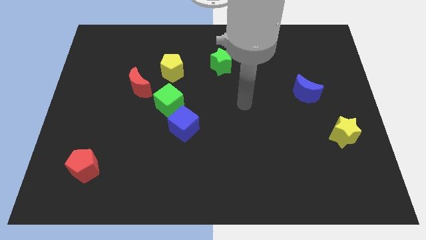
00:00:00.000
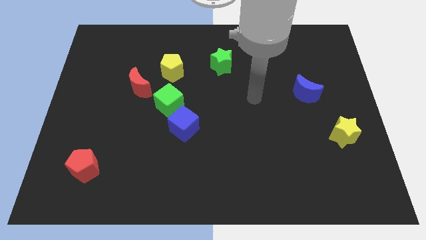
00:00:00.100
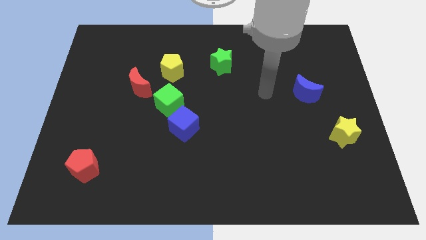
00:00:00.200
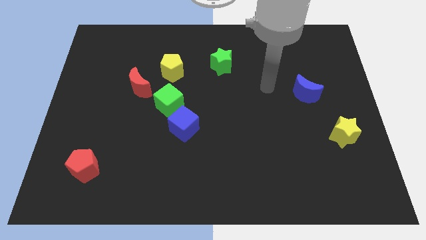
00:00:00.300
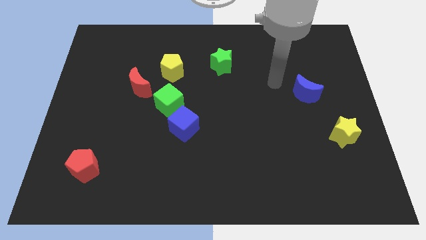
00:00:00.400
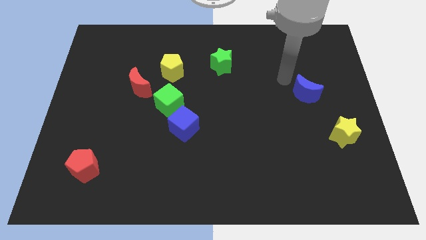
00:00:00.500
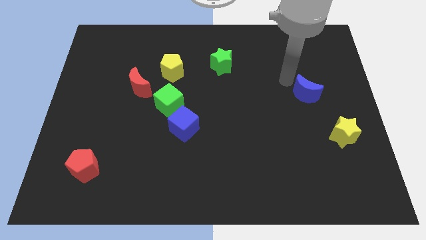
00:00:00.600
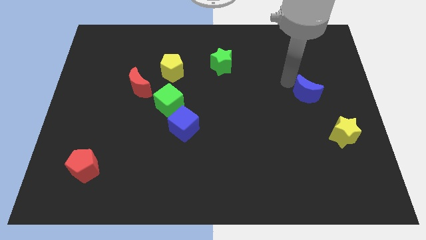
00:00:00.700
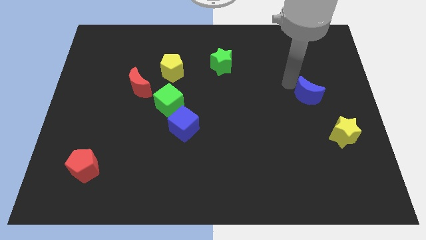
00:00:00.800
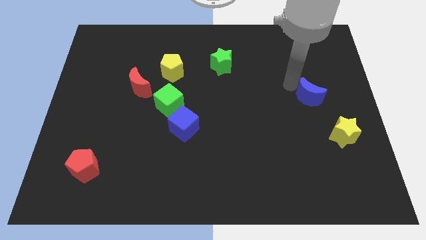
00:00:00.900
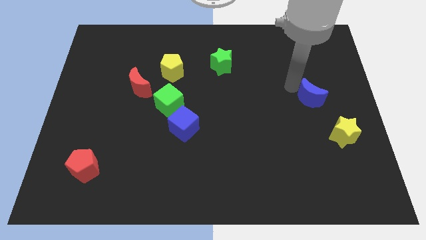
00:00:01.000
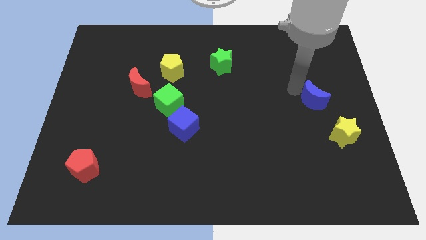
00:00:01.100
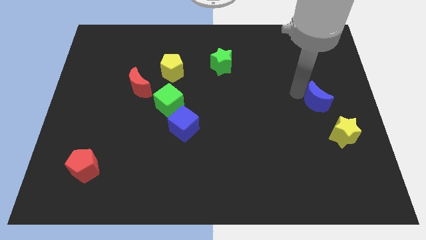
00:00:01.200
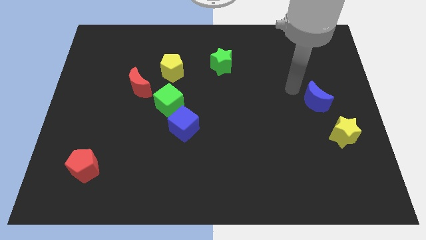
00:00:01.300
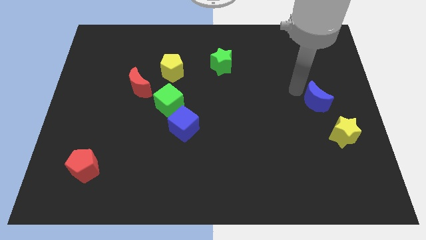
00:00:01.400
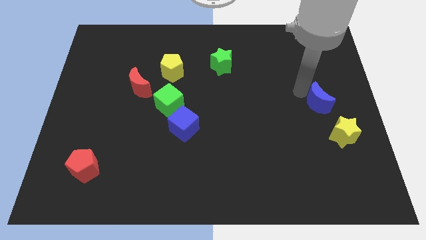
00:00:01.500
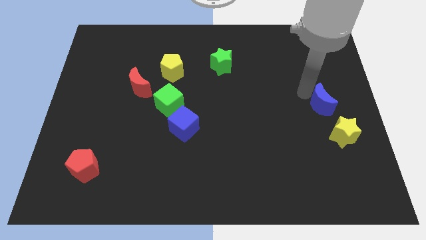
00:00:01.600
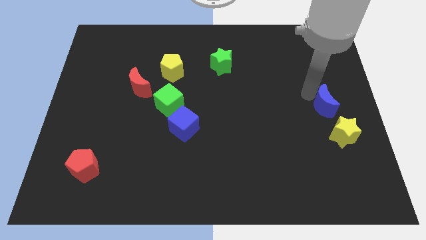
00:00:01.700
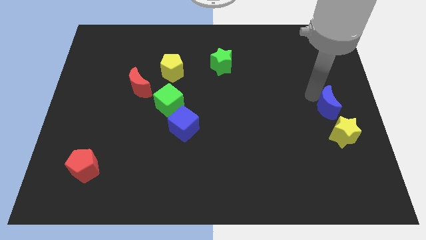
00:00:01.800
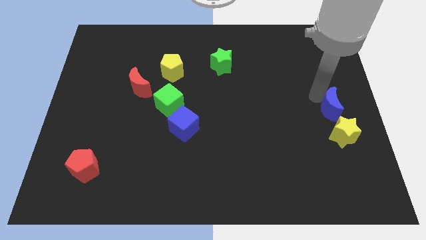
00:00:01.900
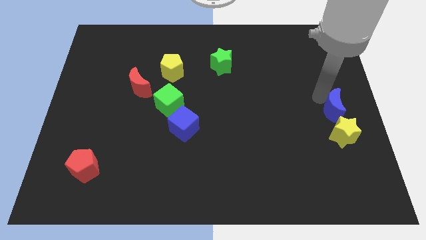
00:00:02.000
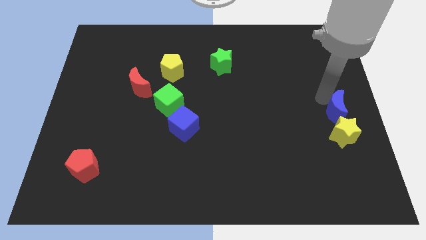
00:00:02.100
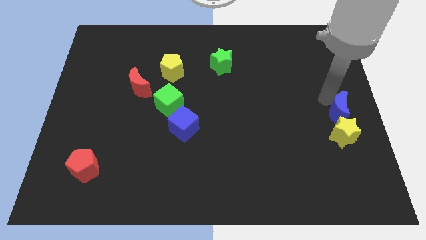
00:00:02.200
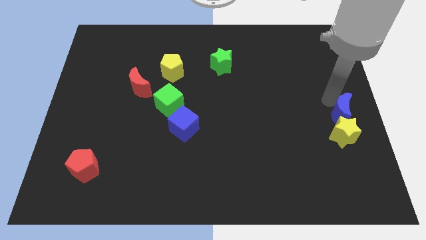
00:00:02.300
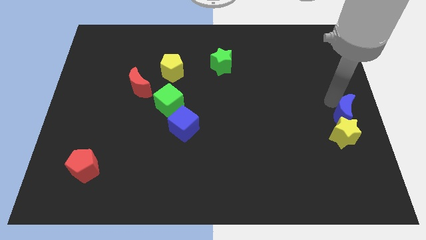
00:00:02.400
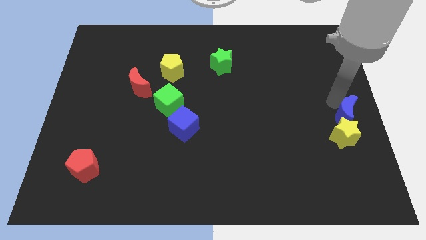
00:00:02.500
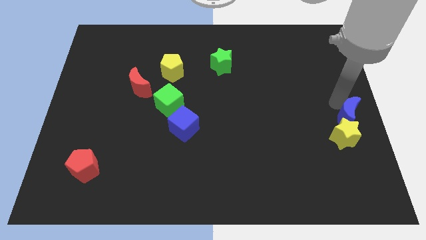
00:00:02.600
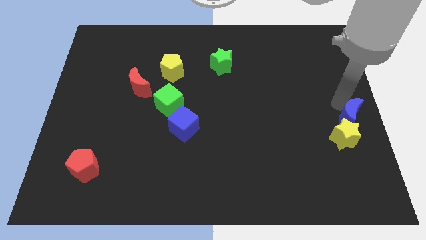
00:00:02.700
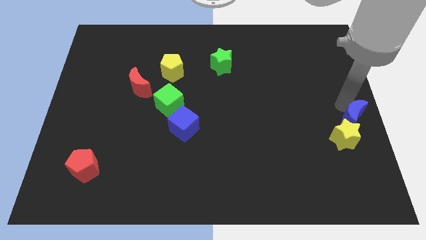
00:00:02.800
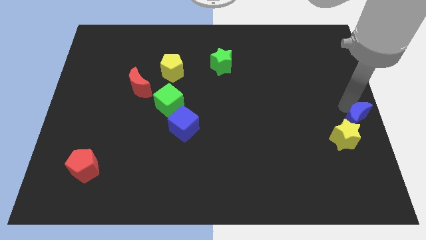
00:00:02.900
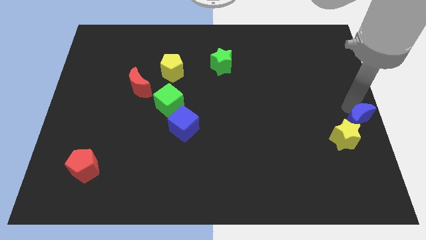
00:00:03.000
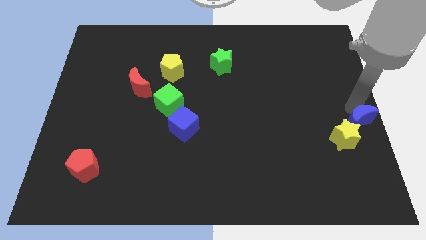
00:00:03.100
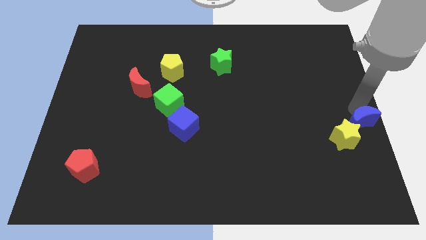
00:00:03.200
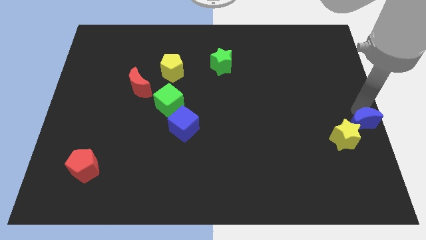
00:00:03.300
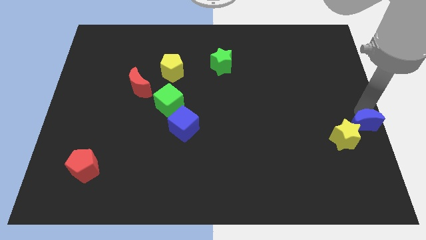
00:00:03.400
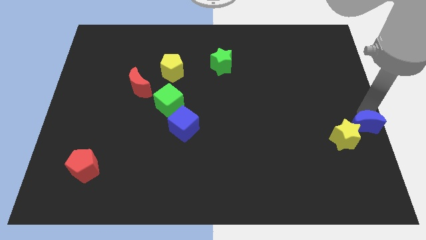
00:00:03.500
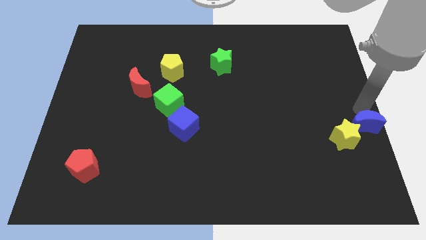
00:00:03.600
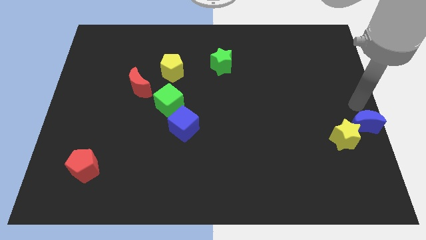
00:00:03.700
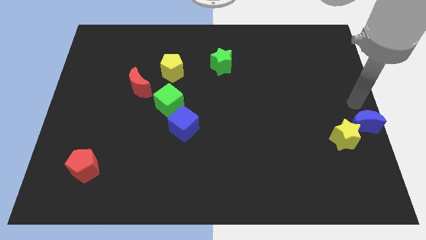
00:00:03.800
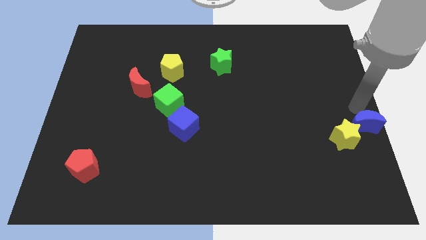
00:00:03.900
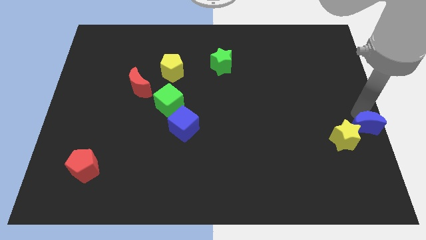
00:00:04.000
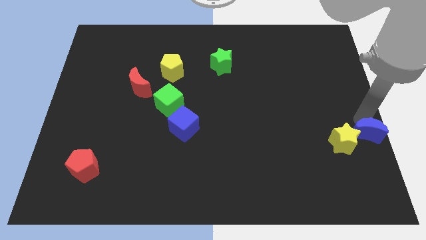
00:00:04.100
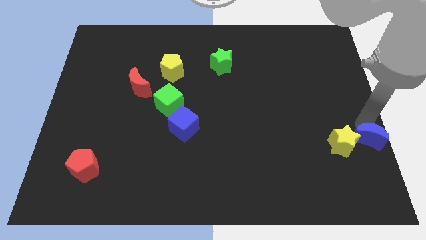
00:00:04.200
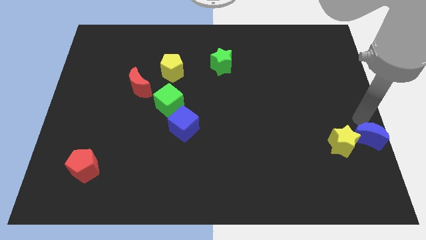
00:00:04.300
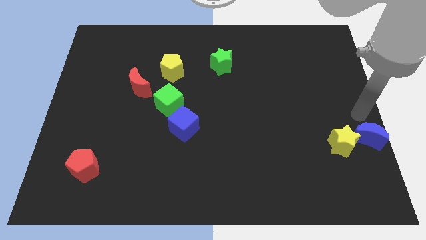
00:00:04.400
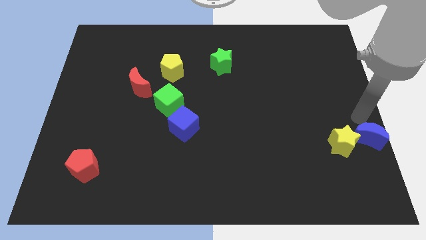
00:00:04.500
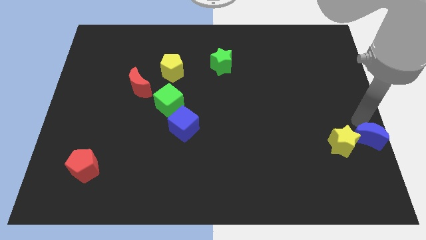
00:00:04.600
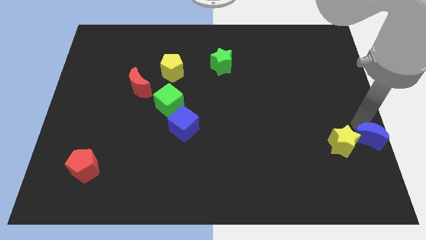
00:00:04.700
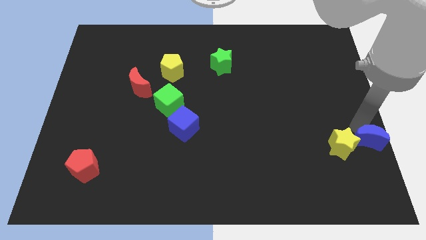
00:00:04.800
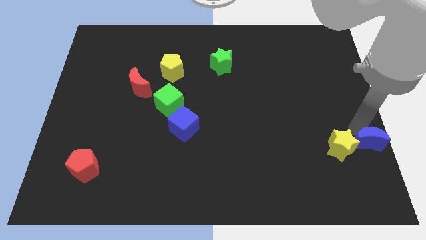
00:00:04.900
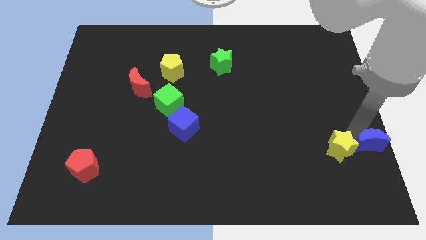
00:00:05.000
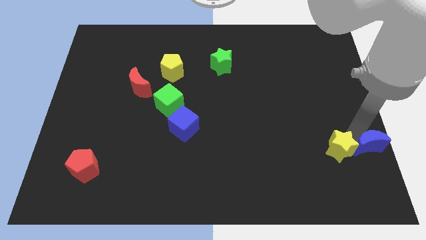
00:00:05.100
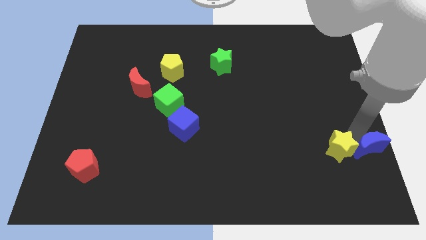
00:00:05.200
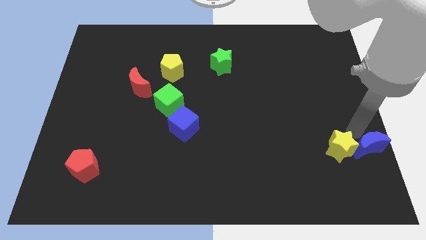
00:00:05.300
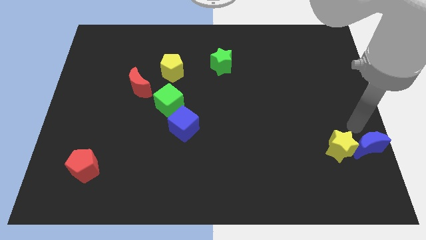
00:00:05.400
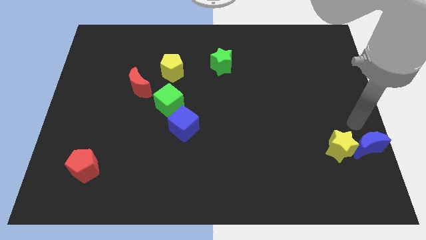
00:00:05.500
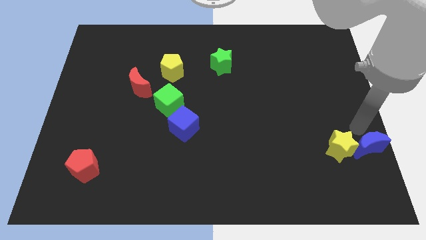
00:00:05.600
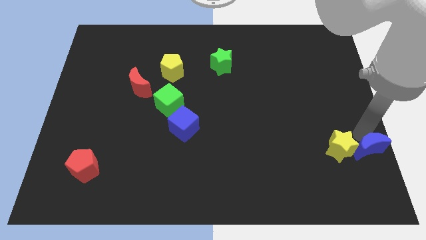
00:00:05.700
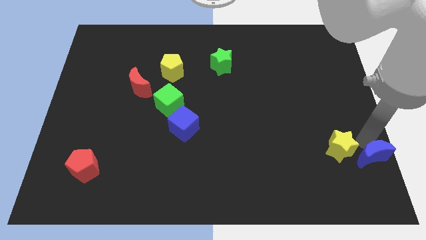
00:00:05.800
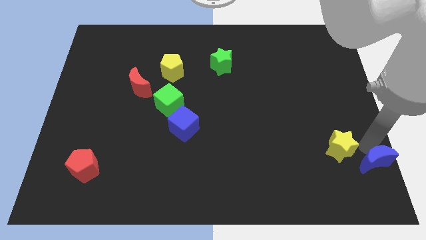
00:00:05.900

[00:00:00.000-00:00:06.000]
push the blue moon to the bottom right of the board
